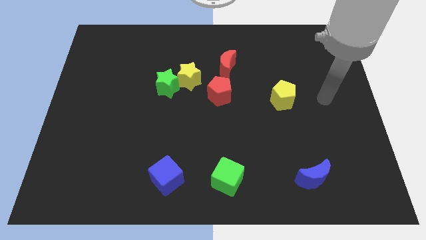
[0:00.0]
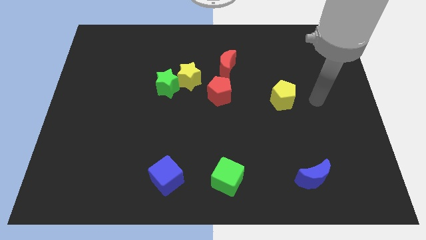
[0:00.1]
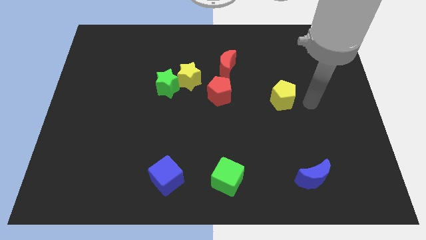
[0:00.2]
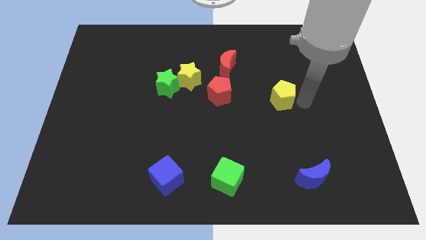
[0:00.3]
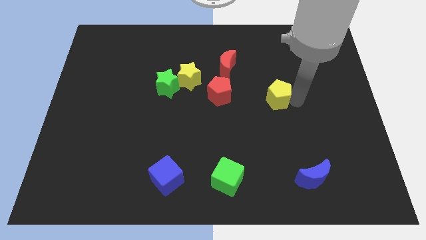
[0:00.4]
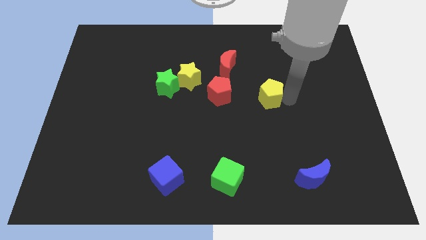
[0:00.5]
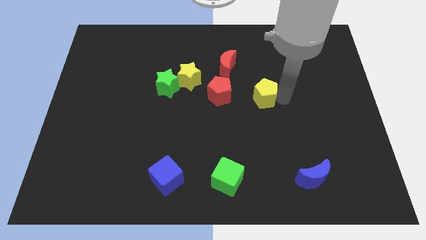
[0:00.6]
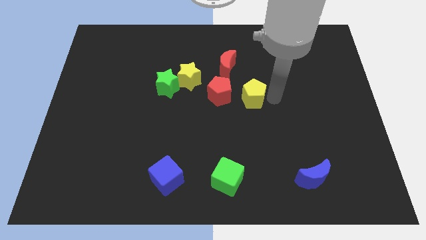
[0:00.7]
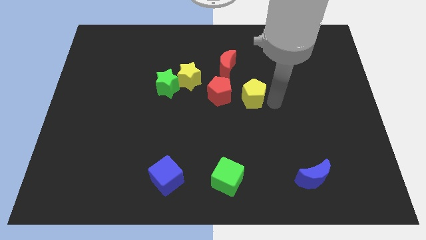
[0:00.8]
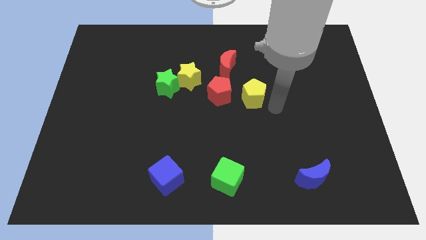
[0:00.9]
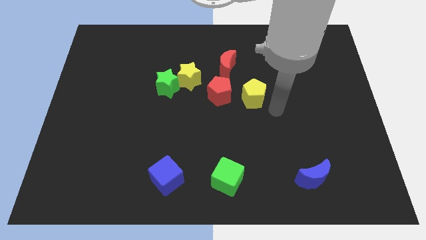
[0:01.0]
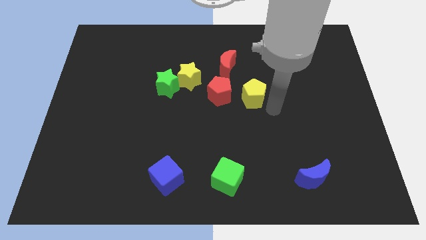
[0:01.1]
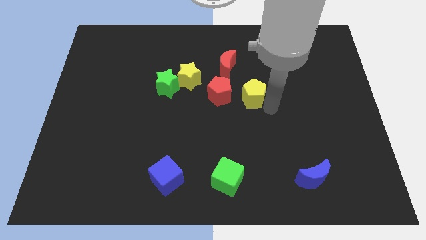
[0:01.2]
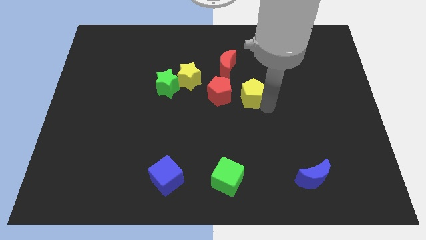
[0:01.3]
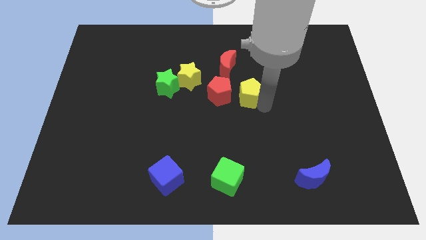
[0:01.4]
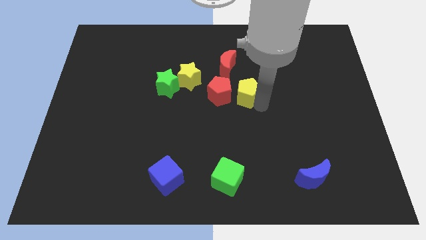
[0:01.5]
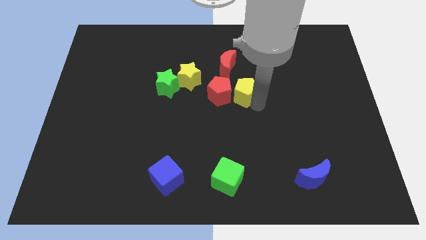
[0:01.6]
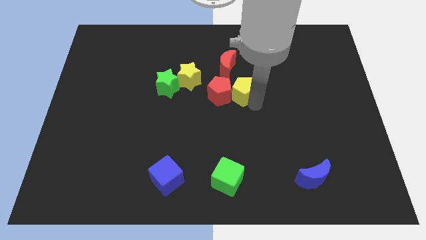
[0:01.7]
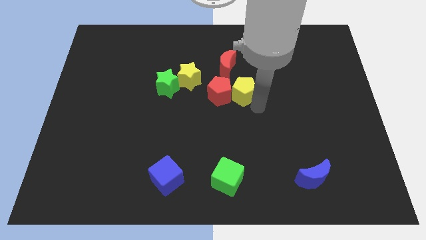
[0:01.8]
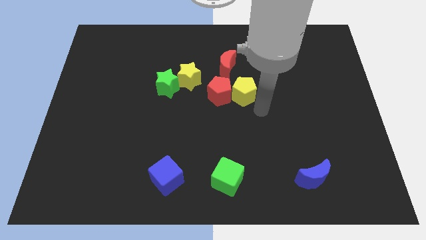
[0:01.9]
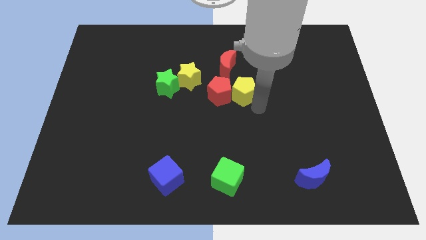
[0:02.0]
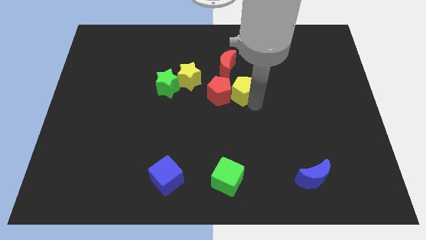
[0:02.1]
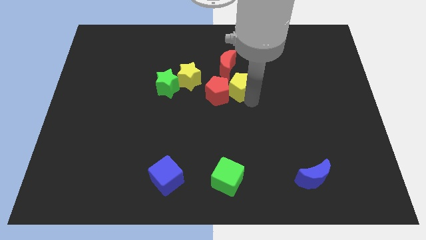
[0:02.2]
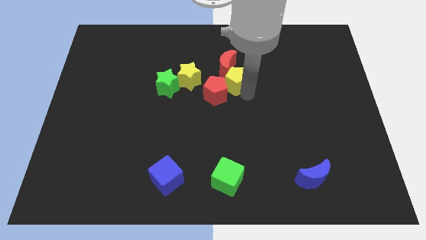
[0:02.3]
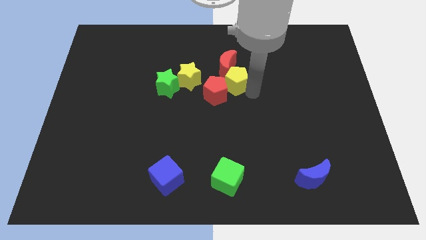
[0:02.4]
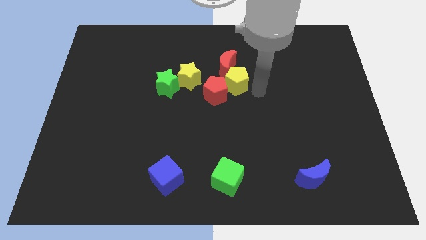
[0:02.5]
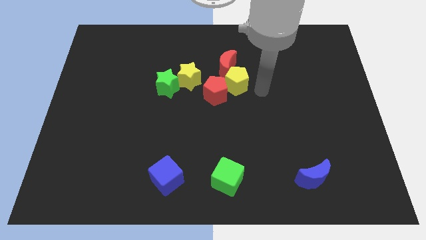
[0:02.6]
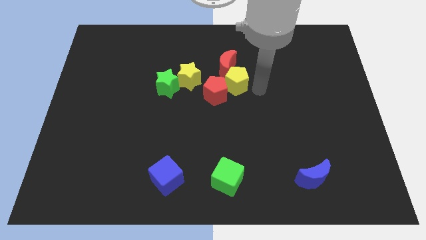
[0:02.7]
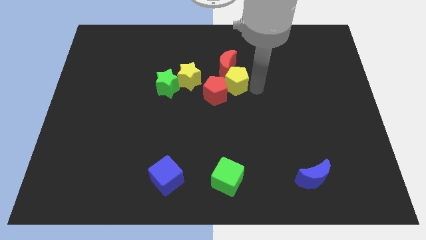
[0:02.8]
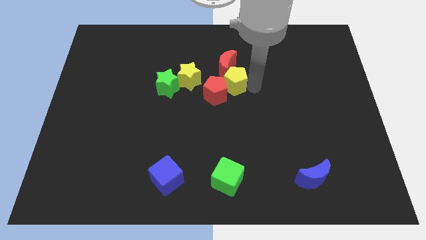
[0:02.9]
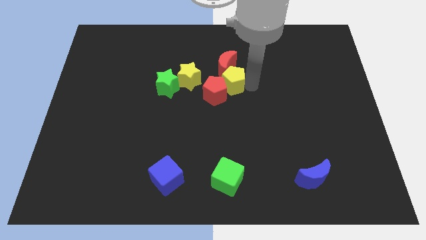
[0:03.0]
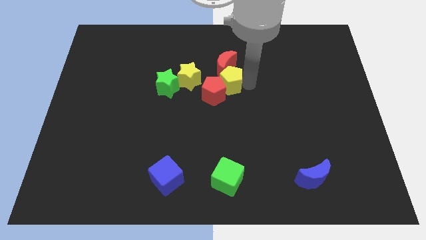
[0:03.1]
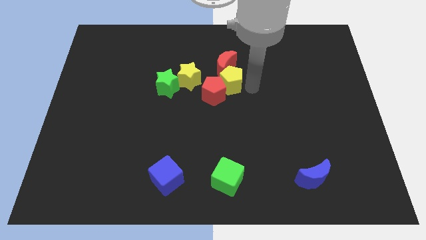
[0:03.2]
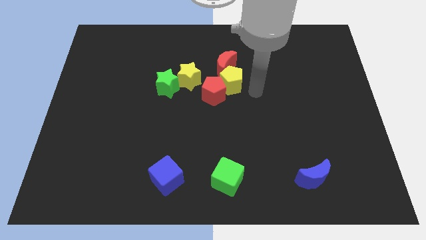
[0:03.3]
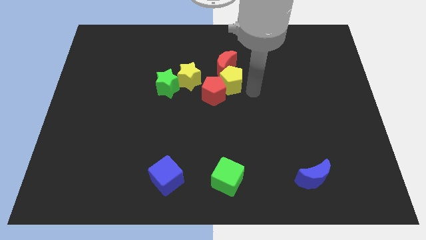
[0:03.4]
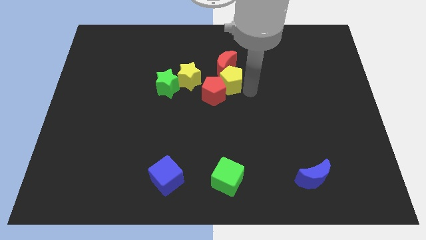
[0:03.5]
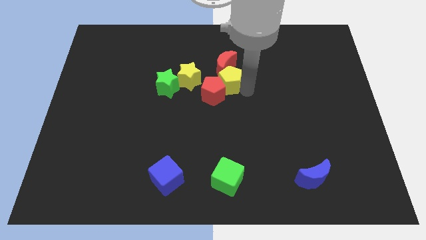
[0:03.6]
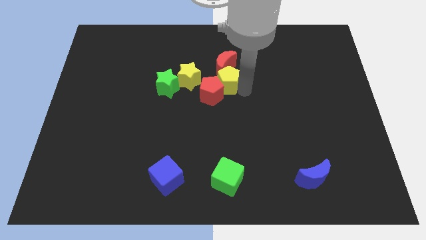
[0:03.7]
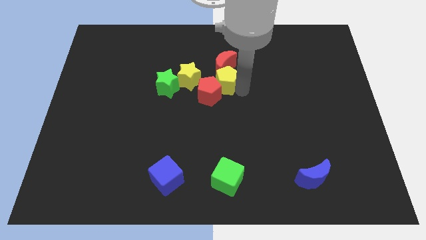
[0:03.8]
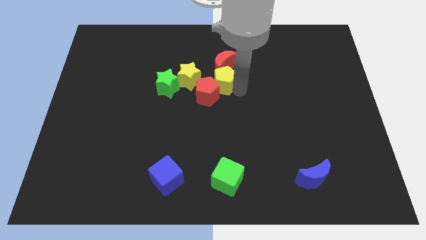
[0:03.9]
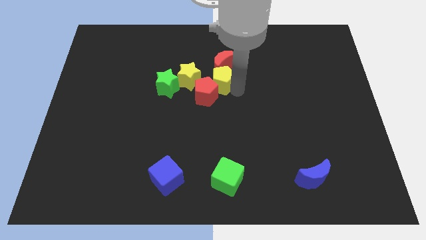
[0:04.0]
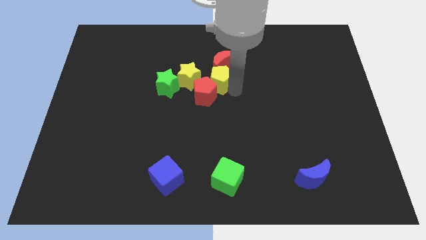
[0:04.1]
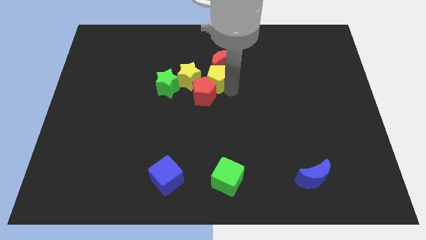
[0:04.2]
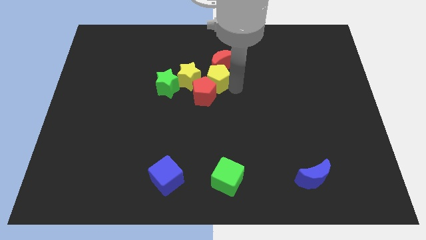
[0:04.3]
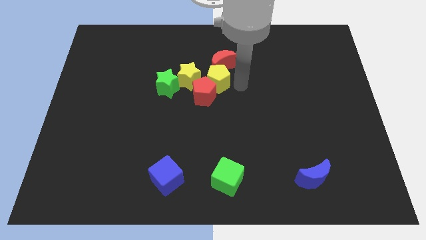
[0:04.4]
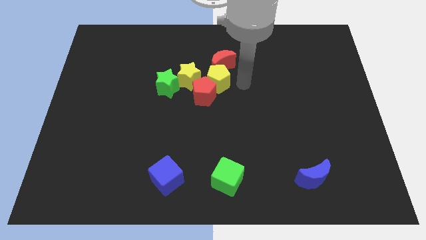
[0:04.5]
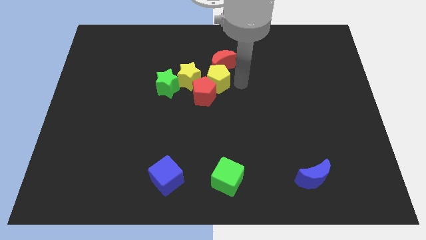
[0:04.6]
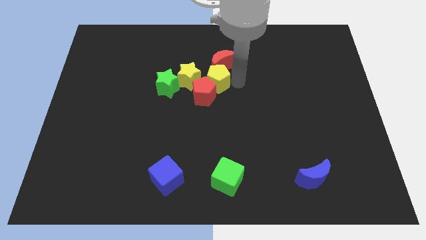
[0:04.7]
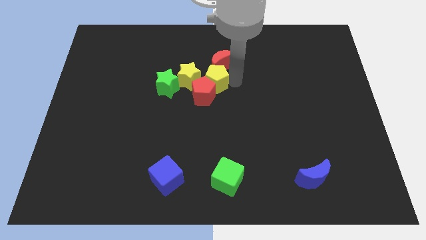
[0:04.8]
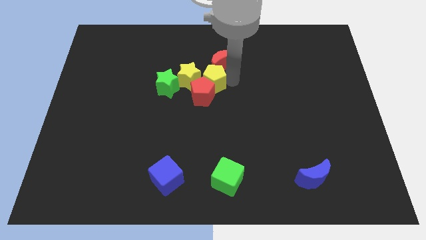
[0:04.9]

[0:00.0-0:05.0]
push the yellow pentagon towards the yellow star

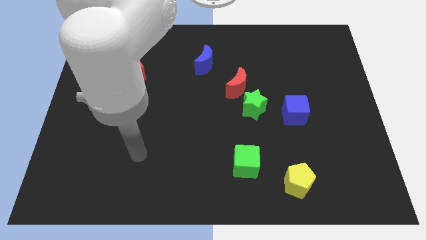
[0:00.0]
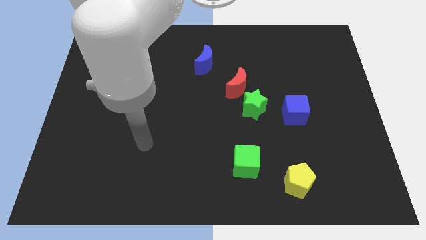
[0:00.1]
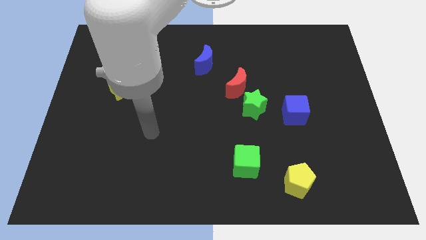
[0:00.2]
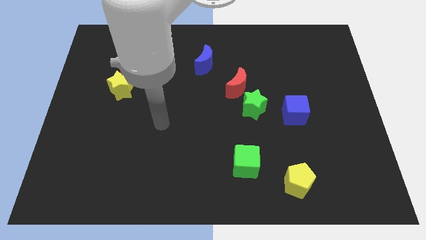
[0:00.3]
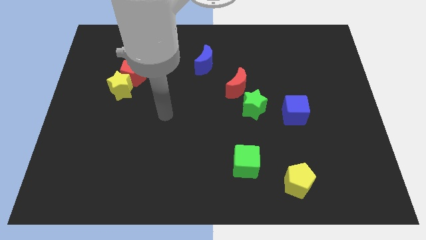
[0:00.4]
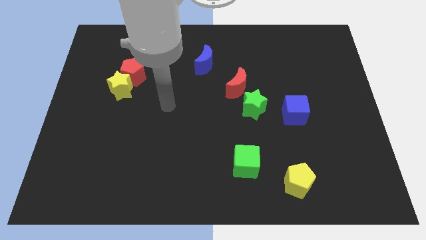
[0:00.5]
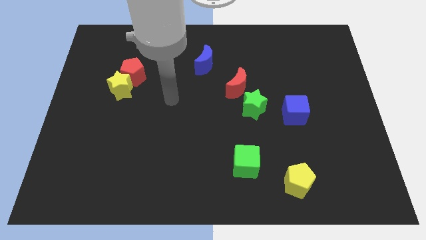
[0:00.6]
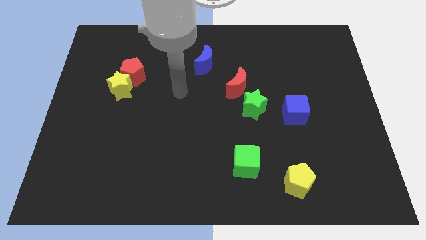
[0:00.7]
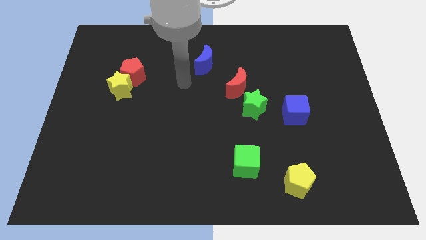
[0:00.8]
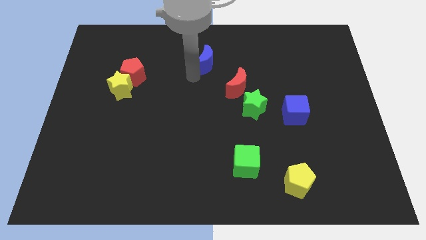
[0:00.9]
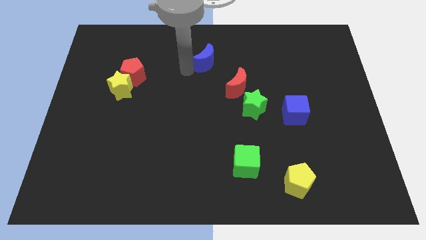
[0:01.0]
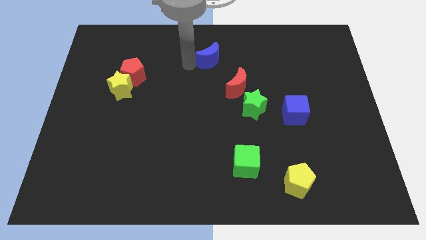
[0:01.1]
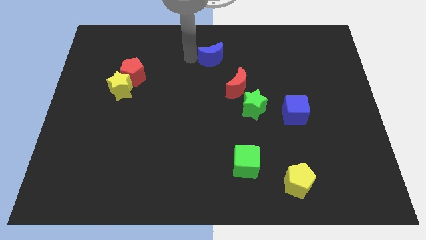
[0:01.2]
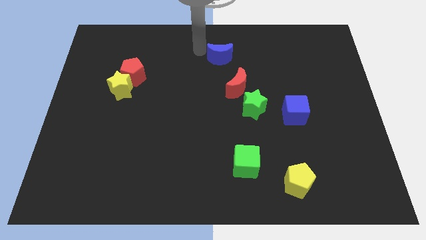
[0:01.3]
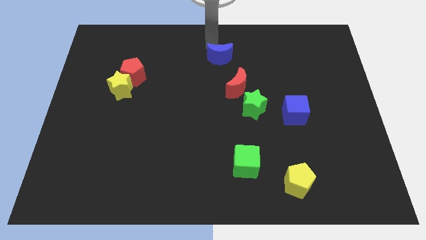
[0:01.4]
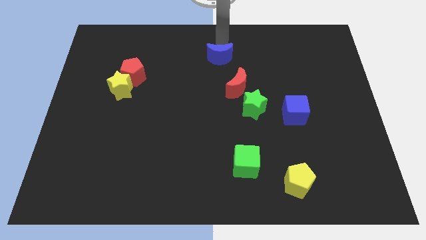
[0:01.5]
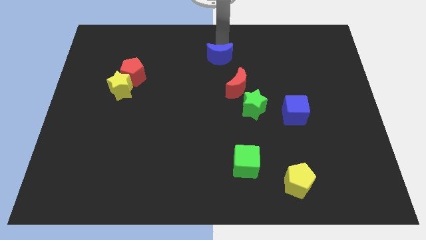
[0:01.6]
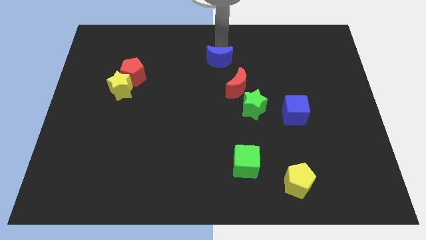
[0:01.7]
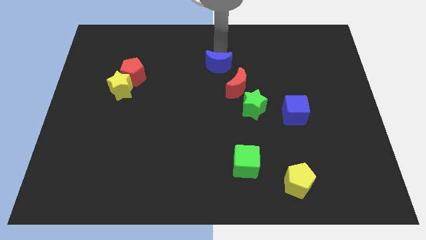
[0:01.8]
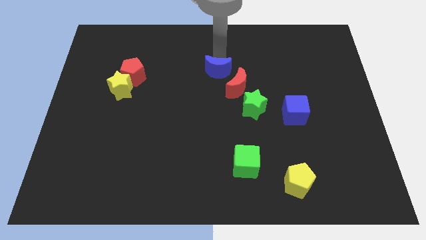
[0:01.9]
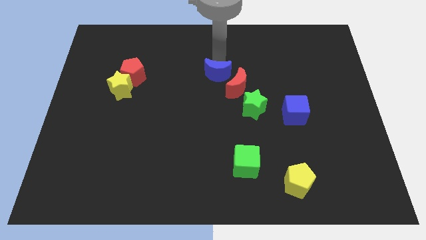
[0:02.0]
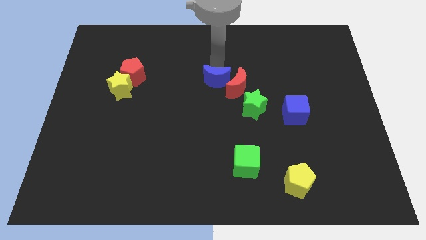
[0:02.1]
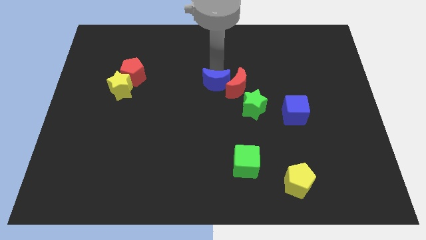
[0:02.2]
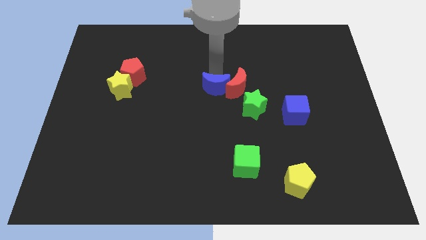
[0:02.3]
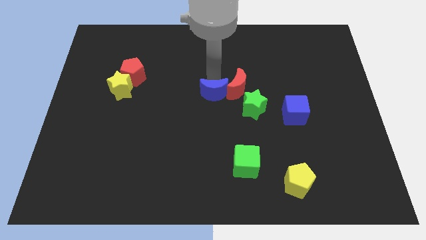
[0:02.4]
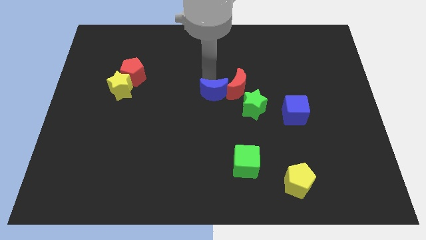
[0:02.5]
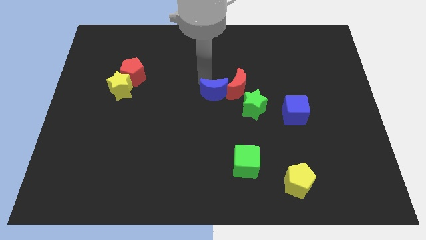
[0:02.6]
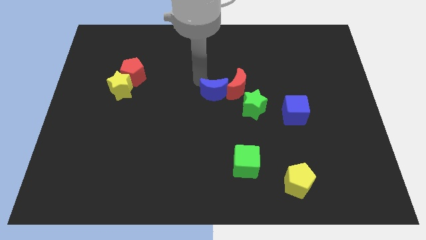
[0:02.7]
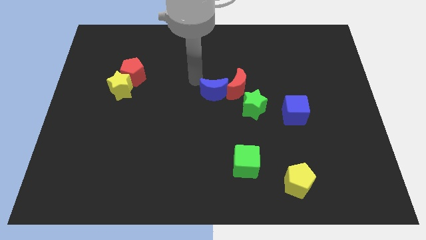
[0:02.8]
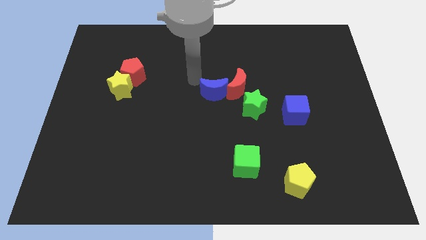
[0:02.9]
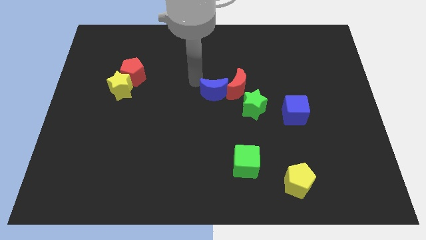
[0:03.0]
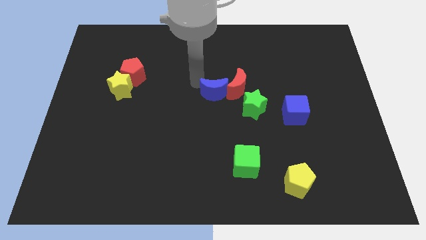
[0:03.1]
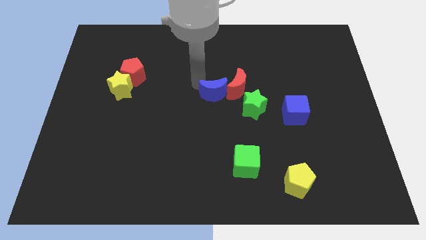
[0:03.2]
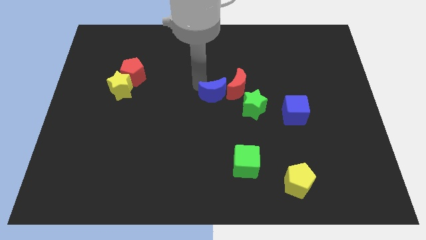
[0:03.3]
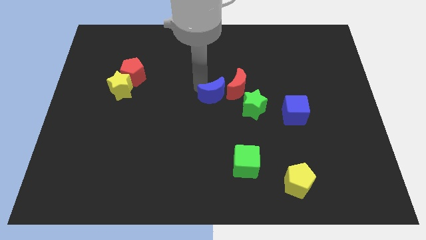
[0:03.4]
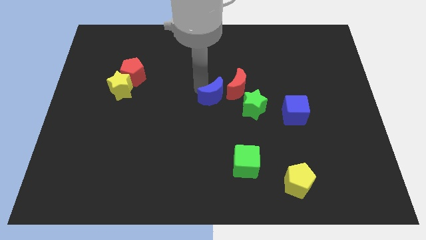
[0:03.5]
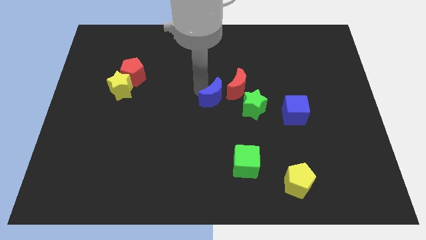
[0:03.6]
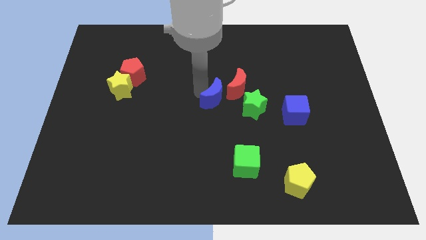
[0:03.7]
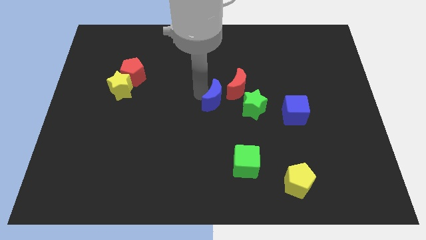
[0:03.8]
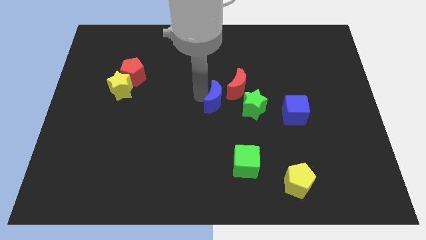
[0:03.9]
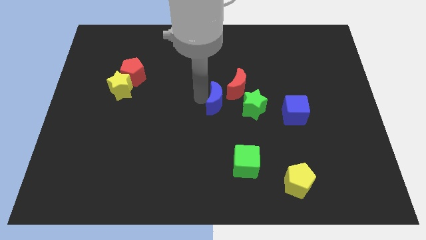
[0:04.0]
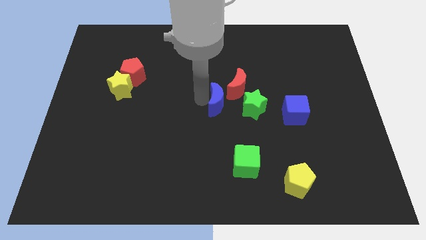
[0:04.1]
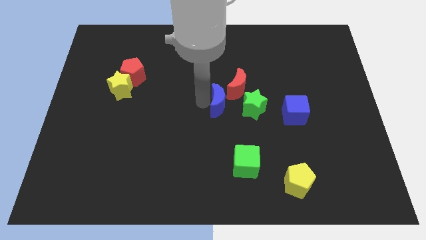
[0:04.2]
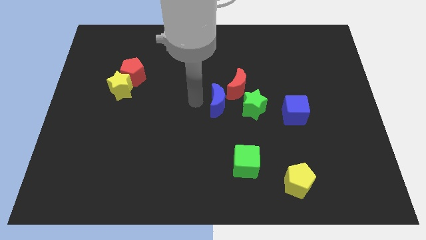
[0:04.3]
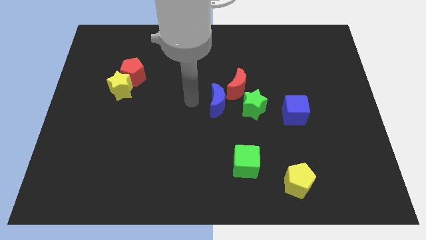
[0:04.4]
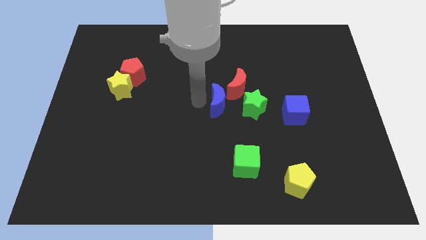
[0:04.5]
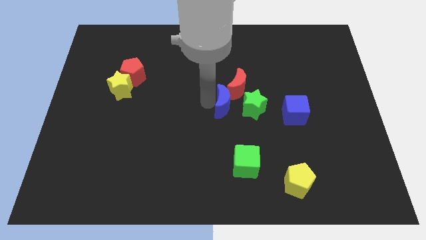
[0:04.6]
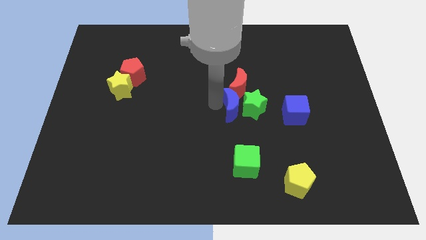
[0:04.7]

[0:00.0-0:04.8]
push the blue moon close to the green star
